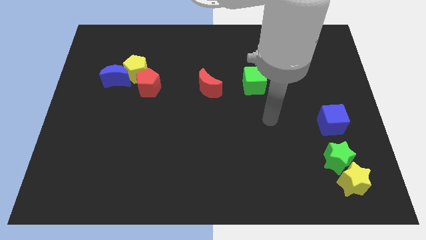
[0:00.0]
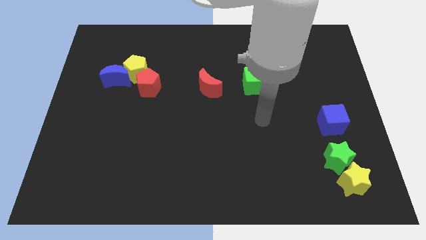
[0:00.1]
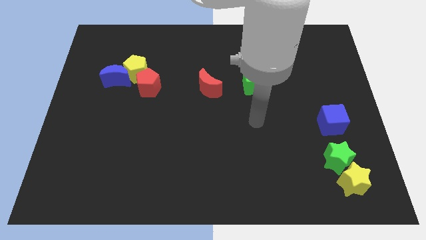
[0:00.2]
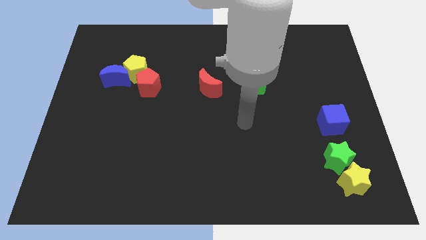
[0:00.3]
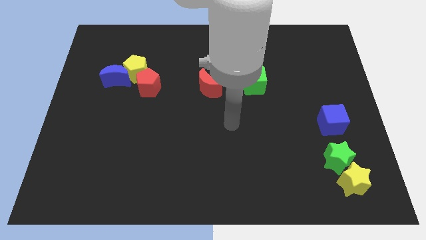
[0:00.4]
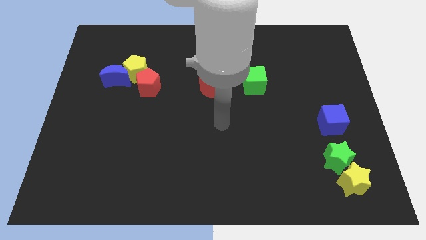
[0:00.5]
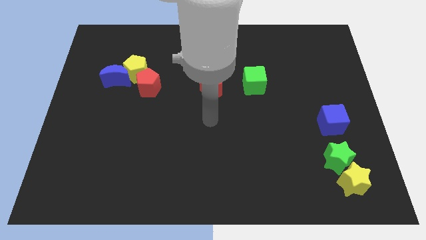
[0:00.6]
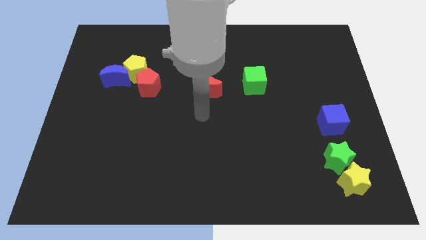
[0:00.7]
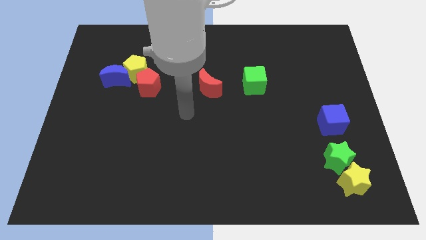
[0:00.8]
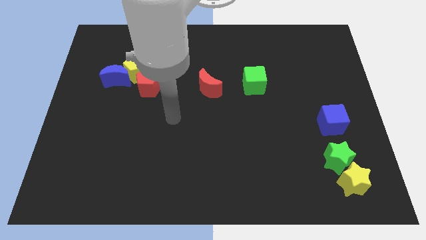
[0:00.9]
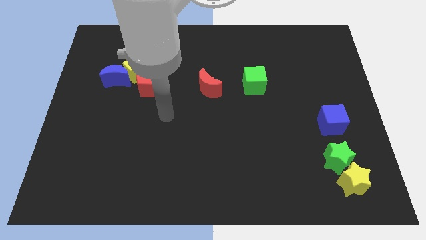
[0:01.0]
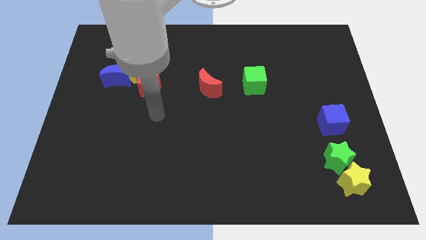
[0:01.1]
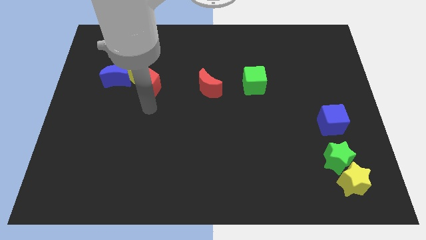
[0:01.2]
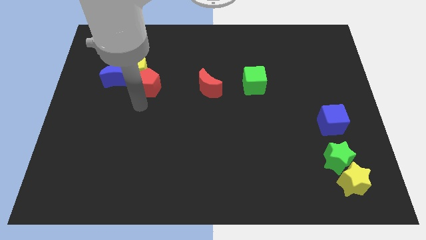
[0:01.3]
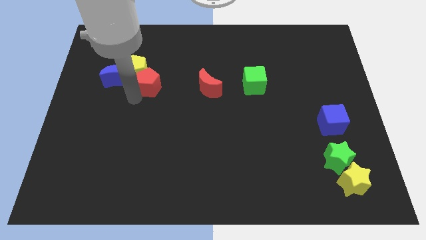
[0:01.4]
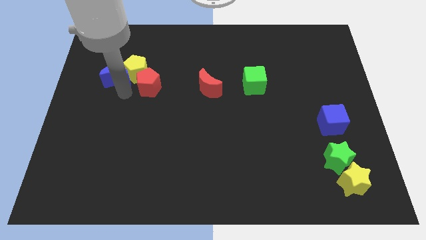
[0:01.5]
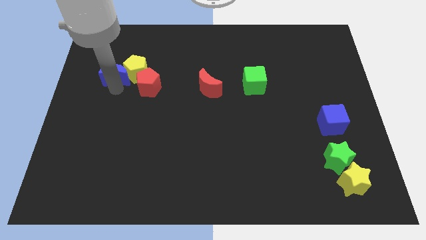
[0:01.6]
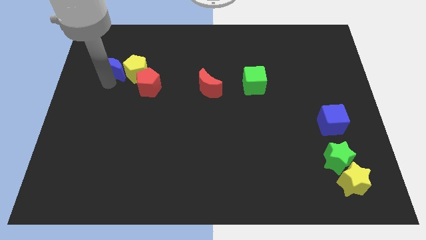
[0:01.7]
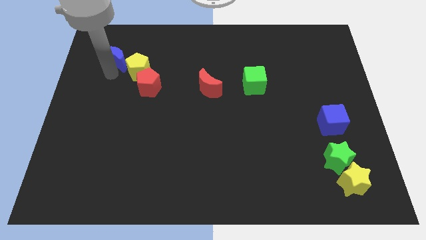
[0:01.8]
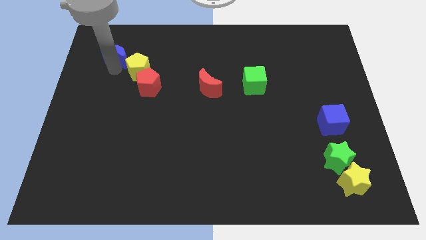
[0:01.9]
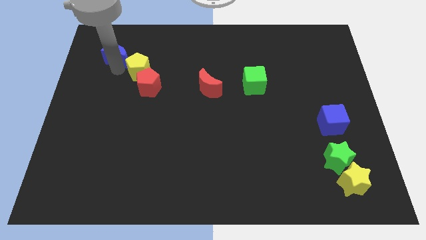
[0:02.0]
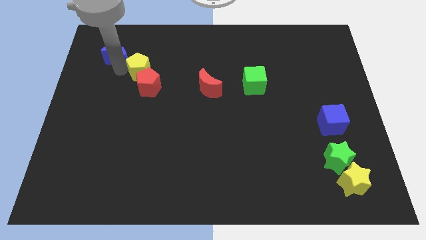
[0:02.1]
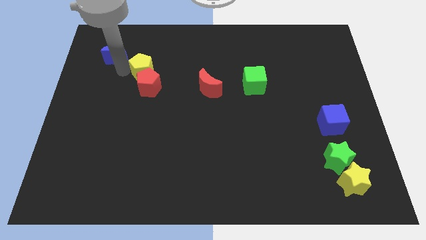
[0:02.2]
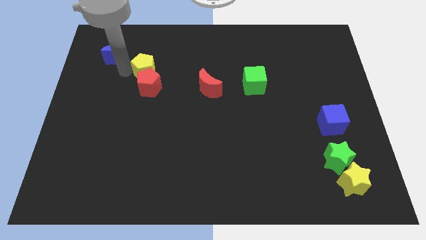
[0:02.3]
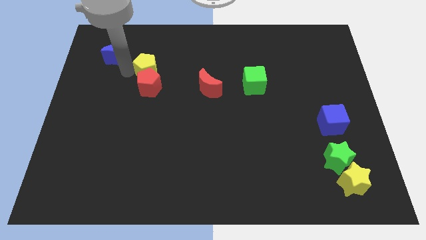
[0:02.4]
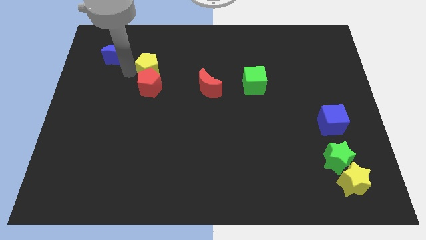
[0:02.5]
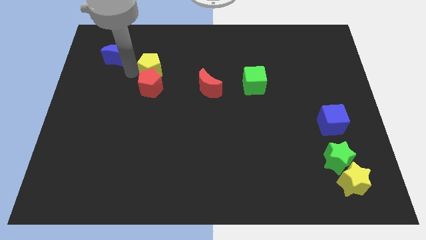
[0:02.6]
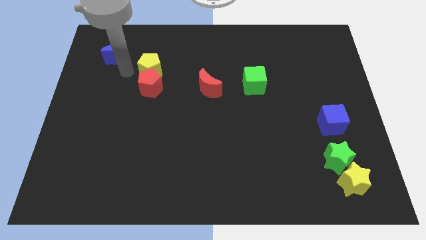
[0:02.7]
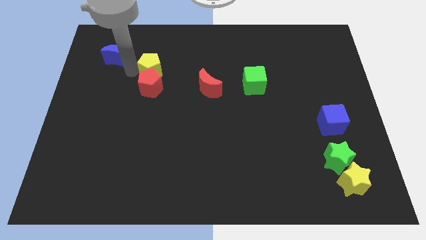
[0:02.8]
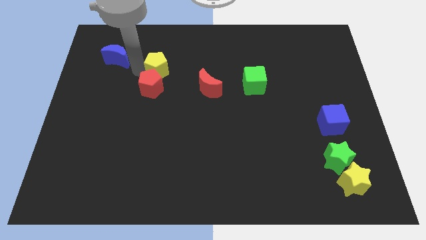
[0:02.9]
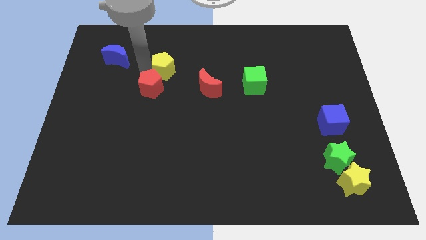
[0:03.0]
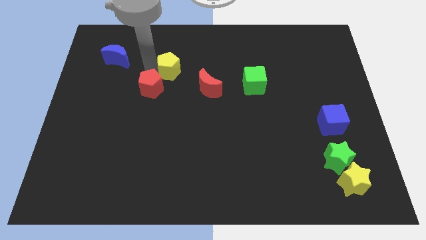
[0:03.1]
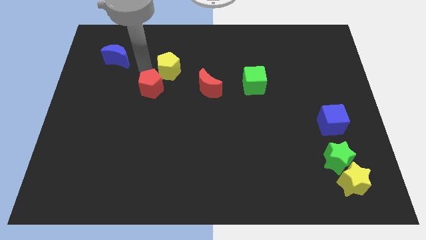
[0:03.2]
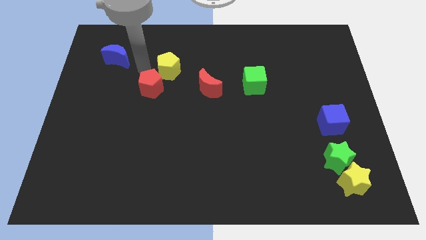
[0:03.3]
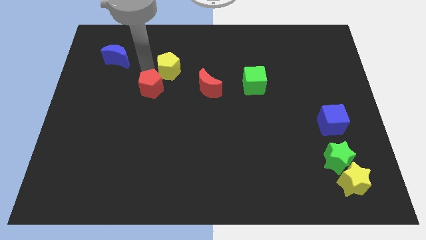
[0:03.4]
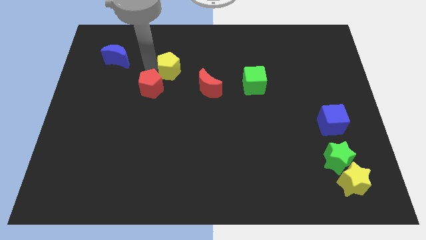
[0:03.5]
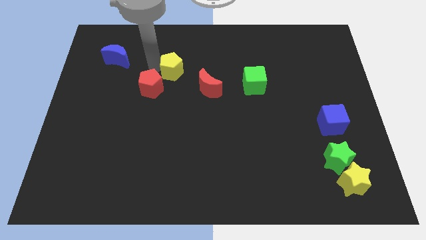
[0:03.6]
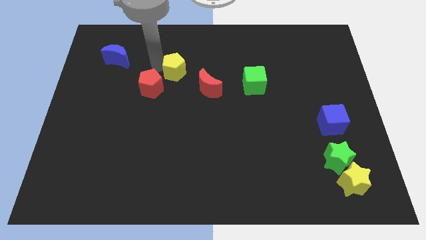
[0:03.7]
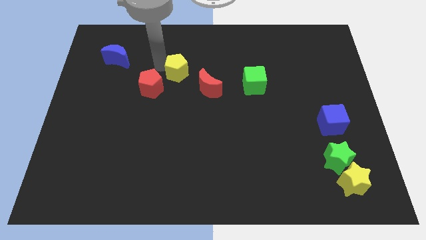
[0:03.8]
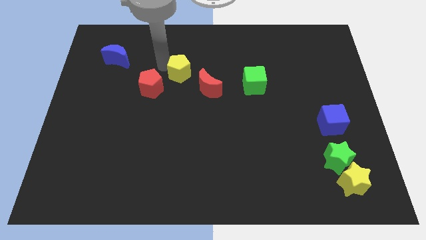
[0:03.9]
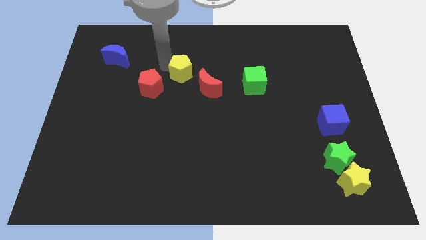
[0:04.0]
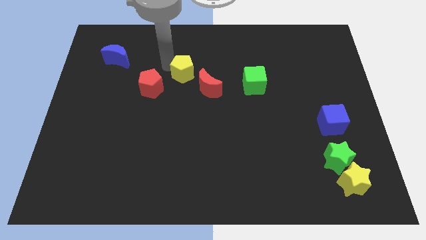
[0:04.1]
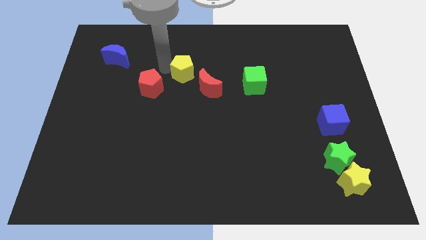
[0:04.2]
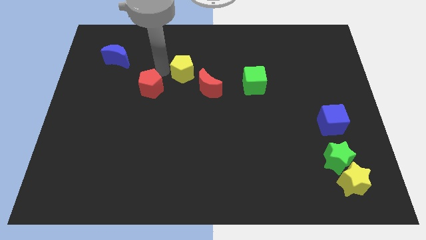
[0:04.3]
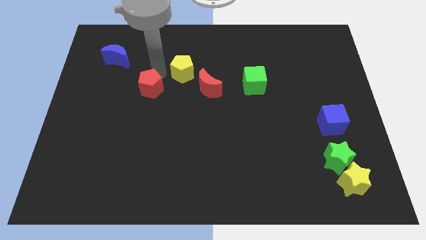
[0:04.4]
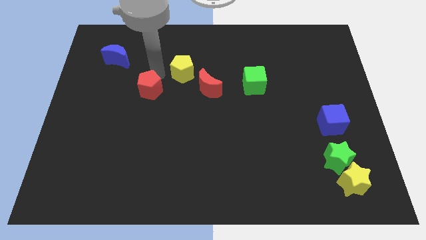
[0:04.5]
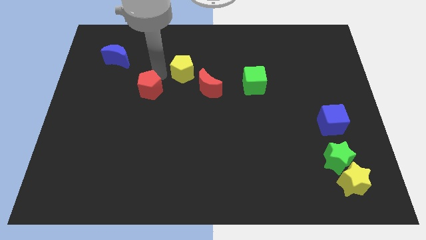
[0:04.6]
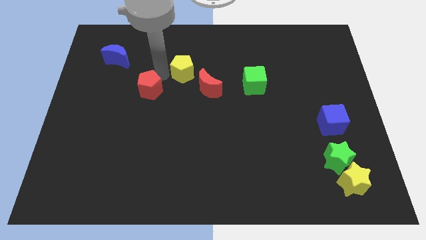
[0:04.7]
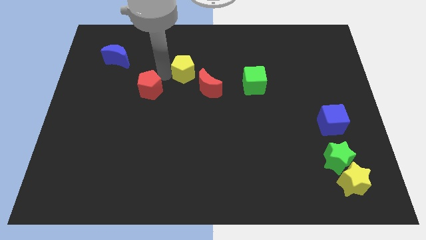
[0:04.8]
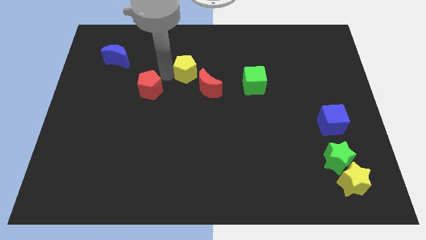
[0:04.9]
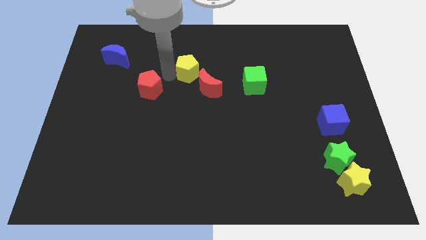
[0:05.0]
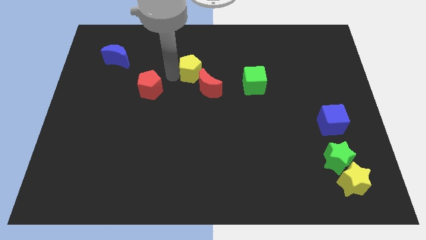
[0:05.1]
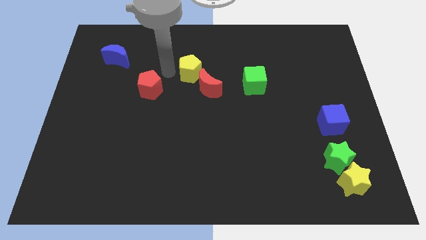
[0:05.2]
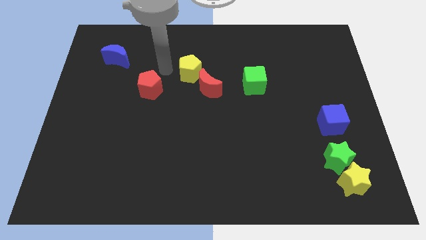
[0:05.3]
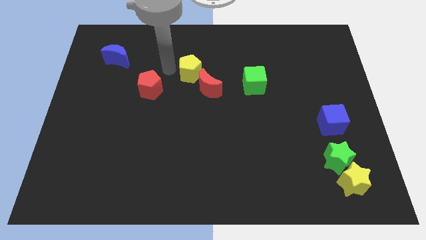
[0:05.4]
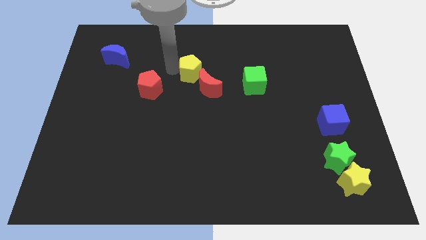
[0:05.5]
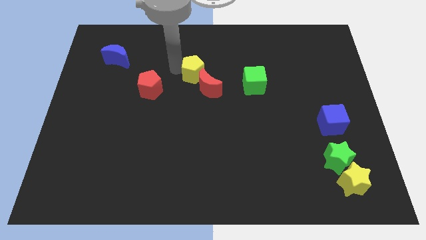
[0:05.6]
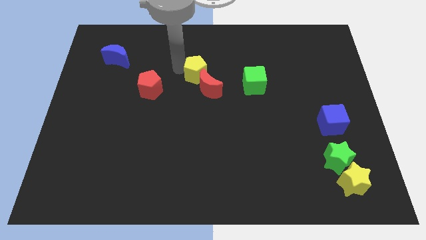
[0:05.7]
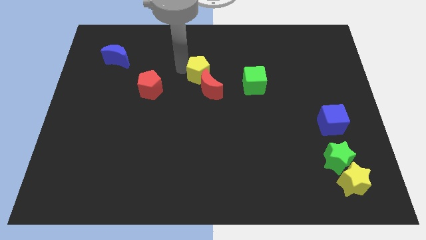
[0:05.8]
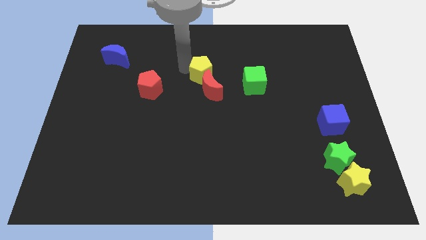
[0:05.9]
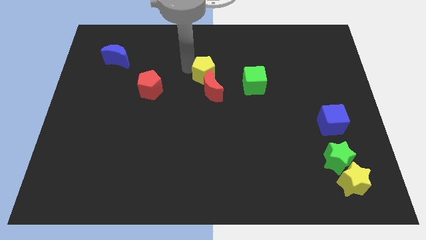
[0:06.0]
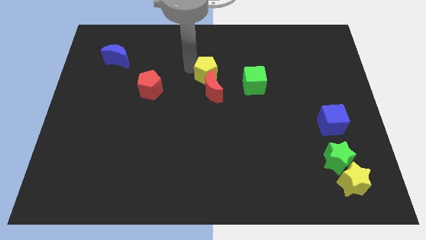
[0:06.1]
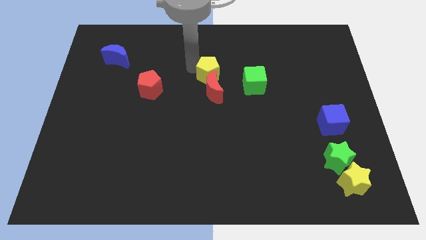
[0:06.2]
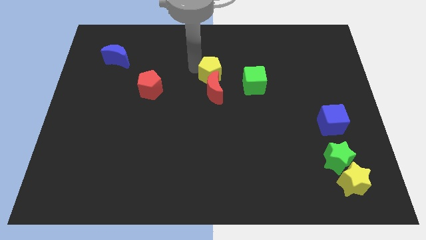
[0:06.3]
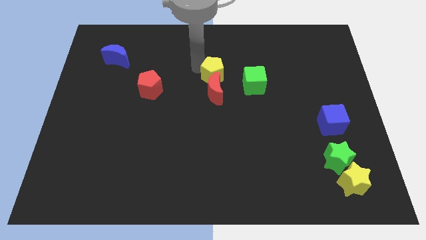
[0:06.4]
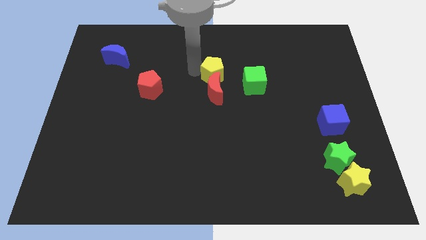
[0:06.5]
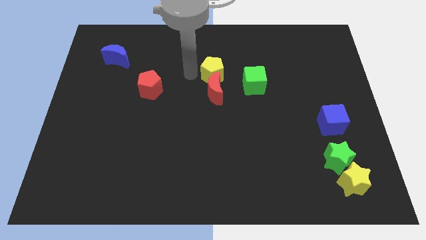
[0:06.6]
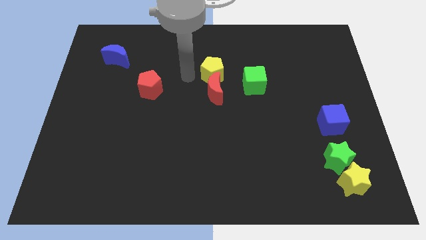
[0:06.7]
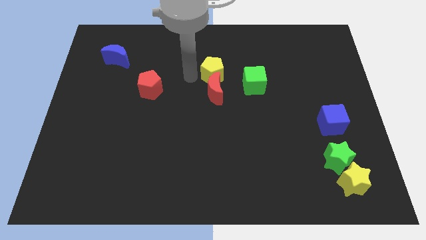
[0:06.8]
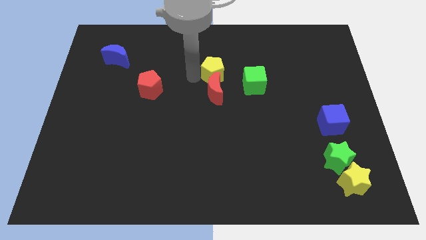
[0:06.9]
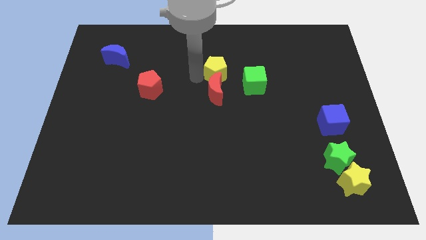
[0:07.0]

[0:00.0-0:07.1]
move the yellow pentagon right

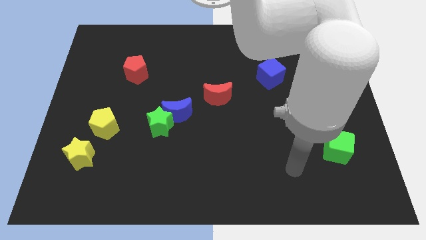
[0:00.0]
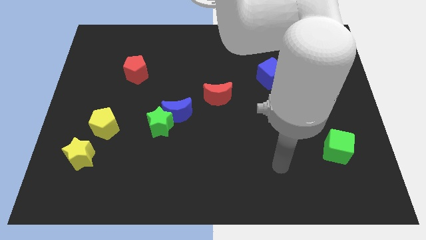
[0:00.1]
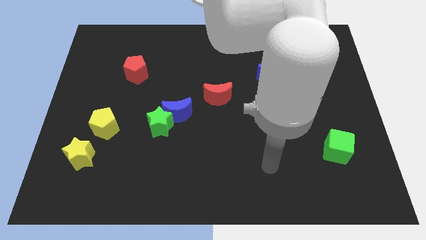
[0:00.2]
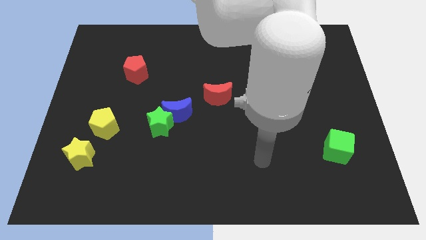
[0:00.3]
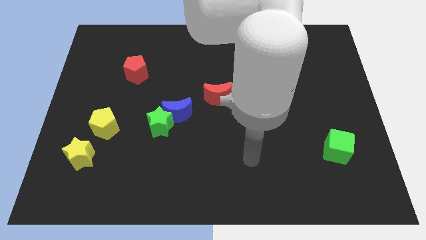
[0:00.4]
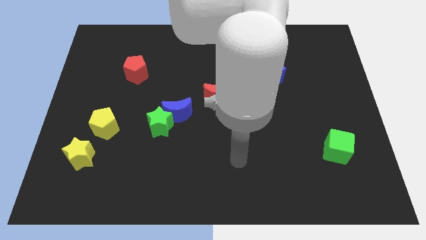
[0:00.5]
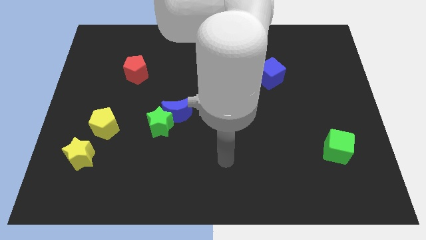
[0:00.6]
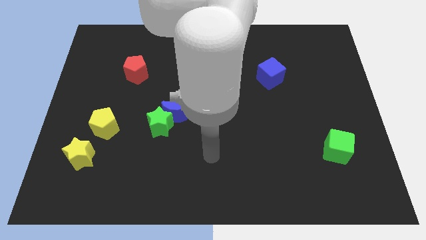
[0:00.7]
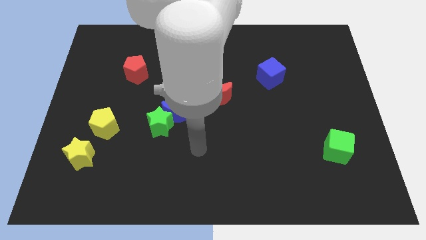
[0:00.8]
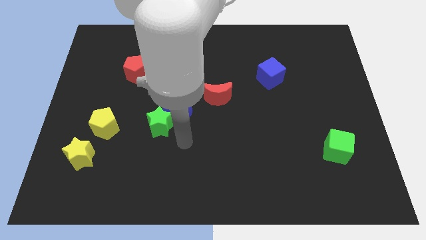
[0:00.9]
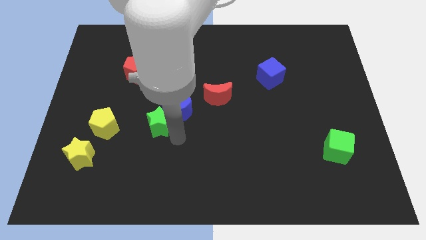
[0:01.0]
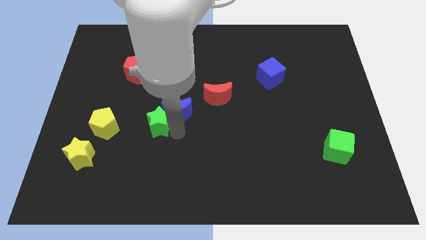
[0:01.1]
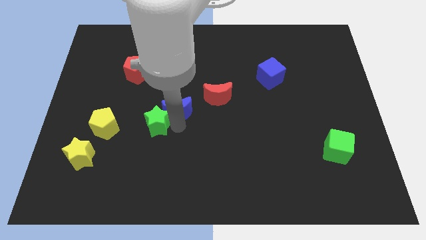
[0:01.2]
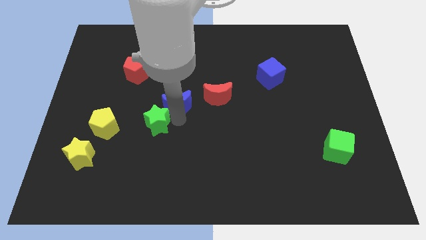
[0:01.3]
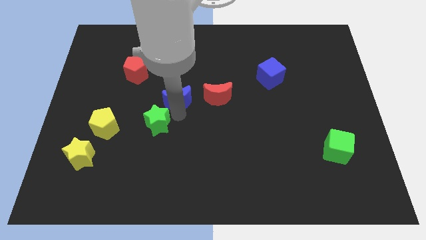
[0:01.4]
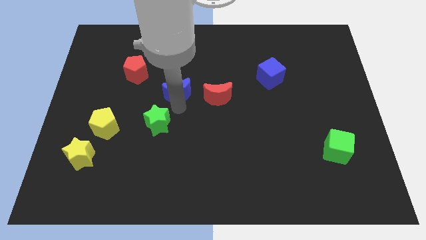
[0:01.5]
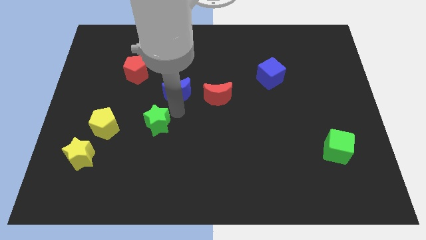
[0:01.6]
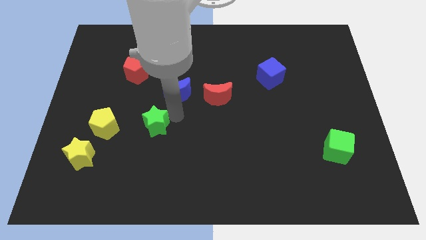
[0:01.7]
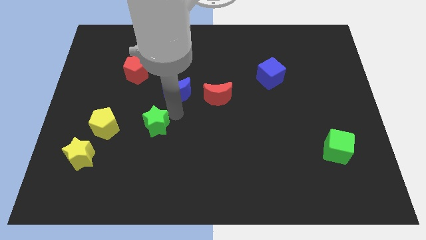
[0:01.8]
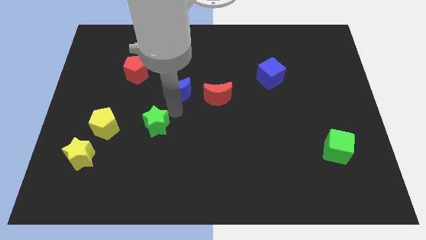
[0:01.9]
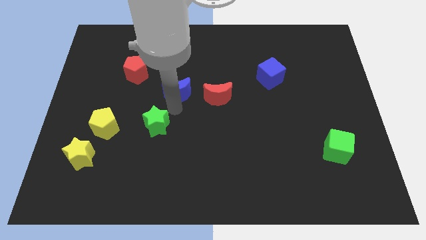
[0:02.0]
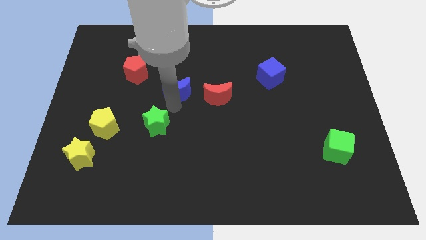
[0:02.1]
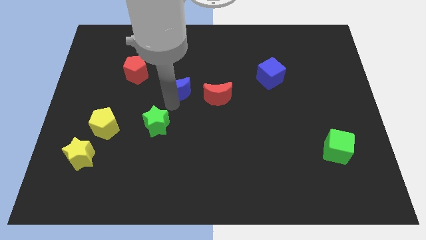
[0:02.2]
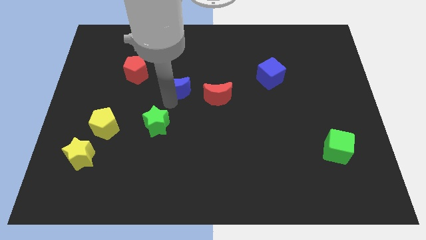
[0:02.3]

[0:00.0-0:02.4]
push the blue moon up a little
